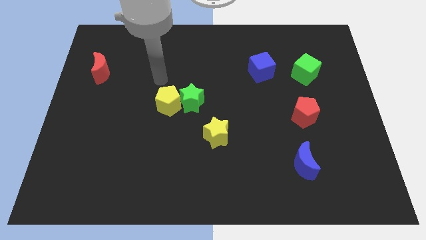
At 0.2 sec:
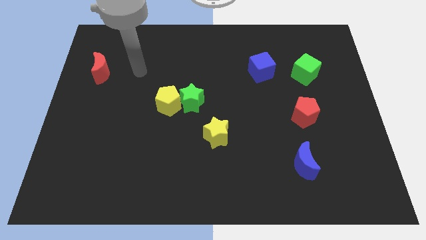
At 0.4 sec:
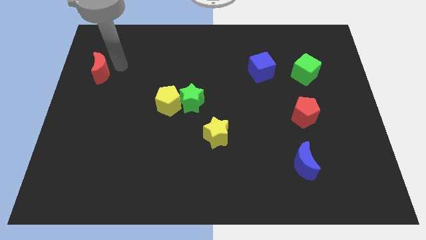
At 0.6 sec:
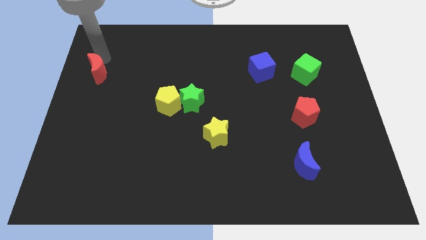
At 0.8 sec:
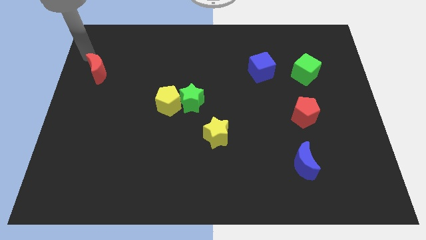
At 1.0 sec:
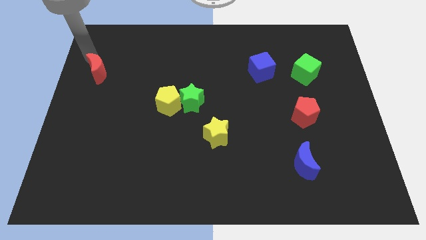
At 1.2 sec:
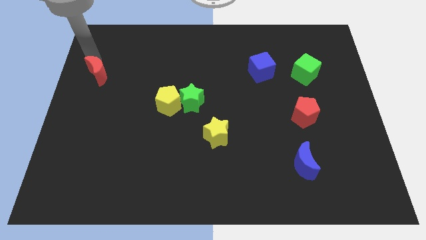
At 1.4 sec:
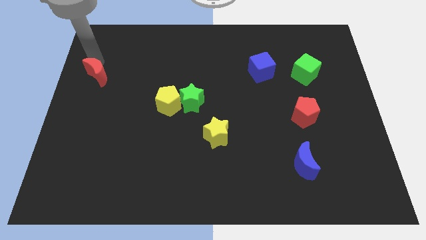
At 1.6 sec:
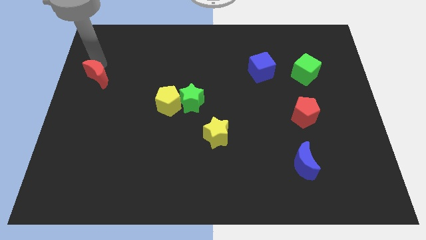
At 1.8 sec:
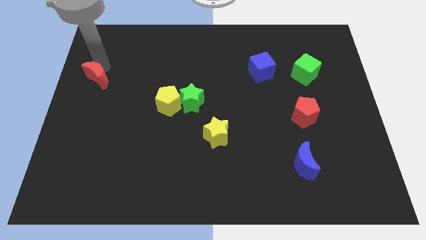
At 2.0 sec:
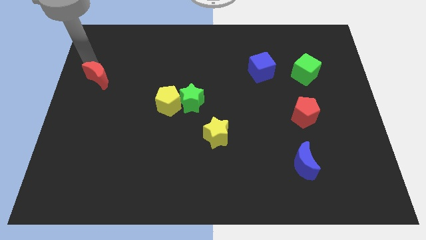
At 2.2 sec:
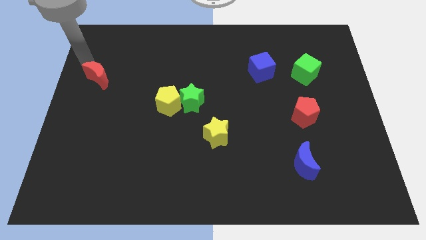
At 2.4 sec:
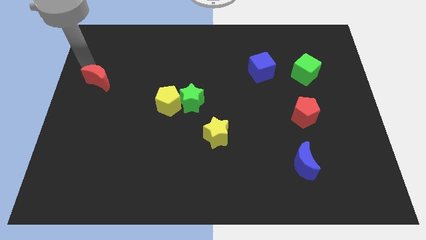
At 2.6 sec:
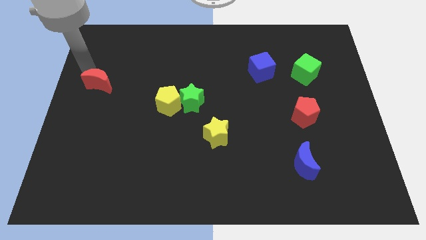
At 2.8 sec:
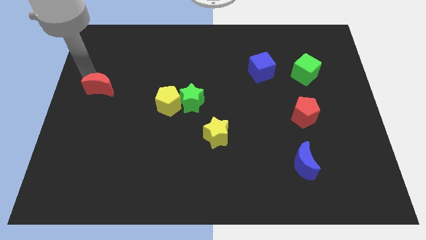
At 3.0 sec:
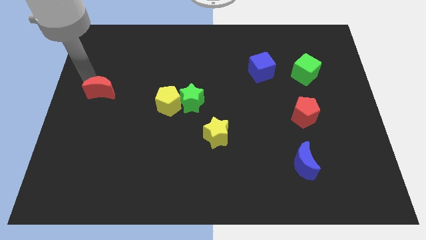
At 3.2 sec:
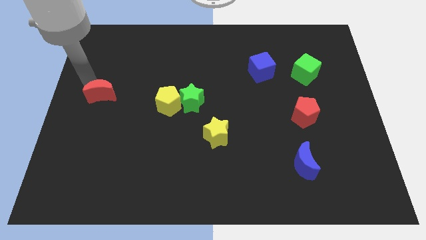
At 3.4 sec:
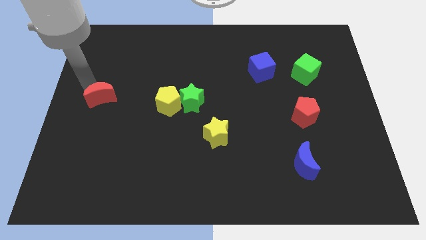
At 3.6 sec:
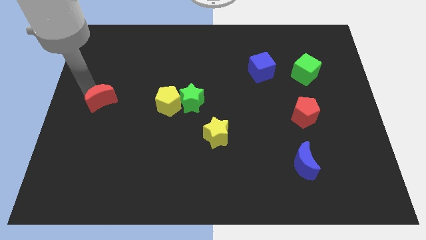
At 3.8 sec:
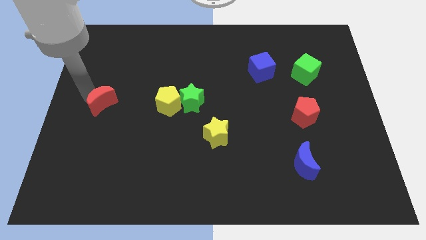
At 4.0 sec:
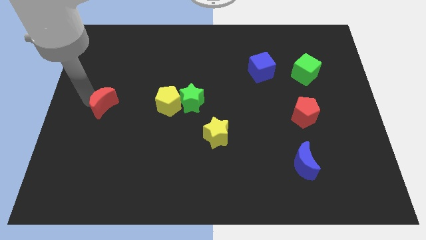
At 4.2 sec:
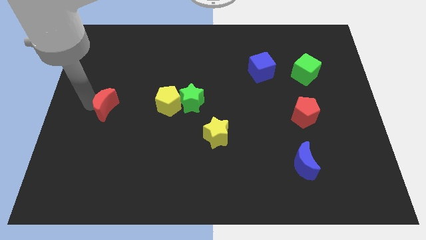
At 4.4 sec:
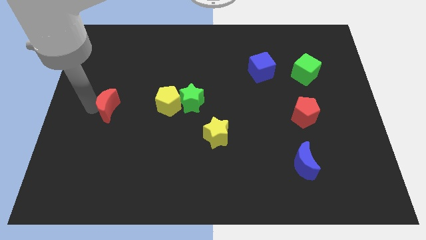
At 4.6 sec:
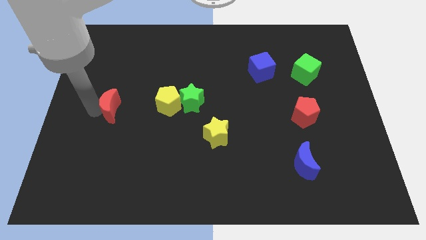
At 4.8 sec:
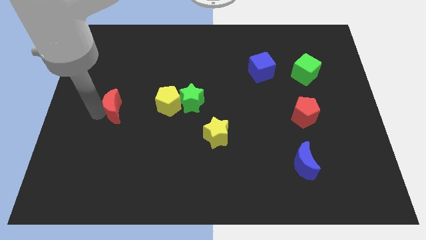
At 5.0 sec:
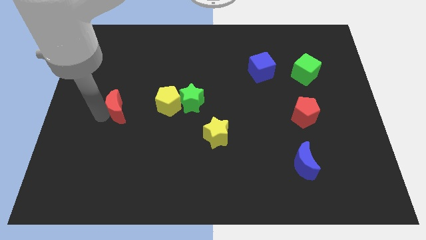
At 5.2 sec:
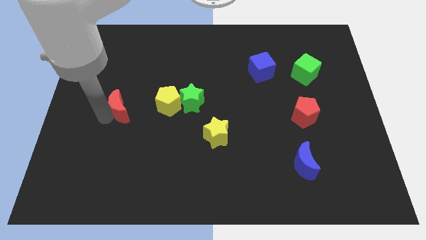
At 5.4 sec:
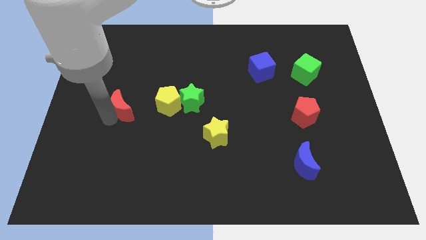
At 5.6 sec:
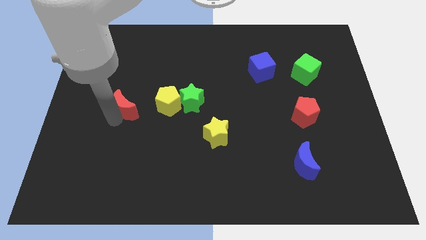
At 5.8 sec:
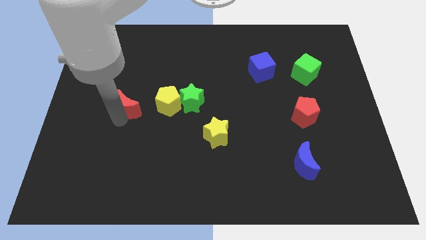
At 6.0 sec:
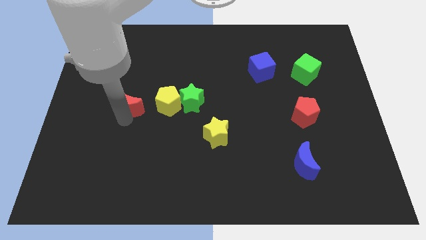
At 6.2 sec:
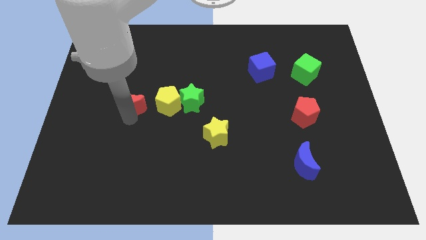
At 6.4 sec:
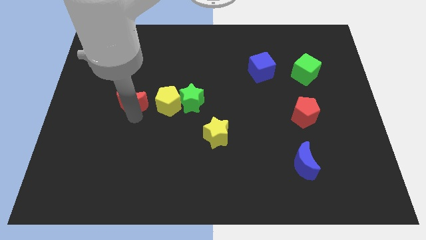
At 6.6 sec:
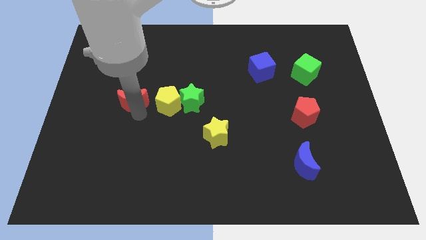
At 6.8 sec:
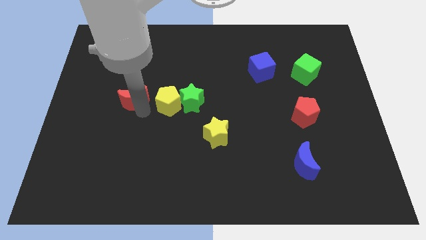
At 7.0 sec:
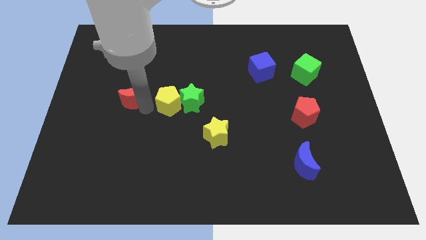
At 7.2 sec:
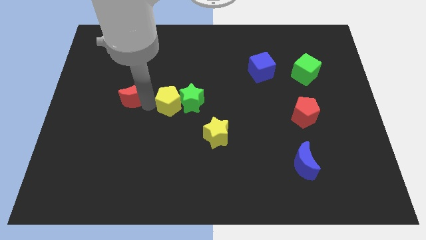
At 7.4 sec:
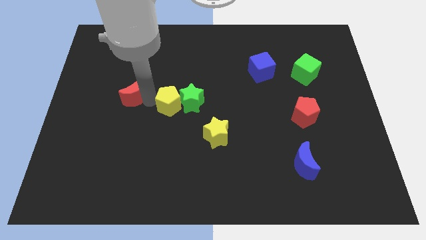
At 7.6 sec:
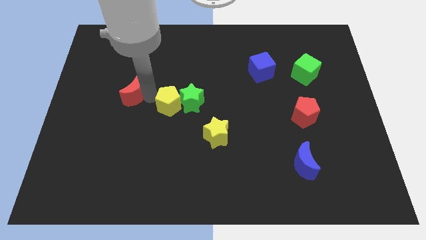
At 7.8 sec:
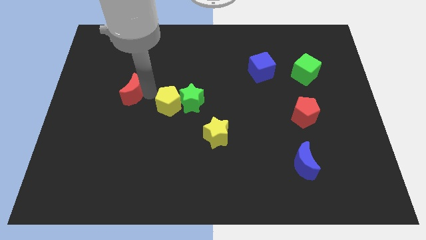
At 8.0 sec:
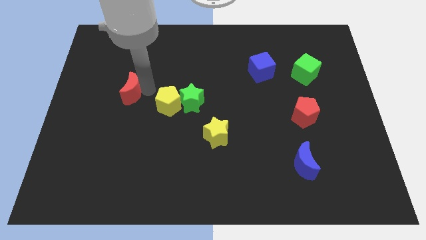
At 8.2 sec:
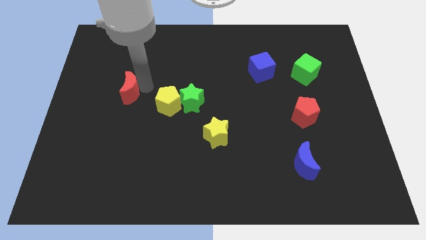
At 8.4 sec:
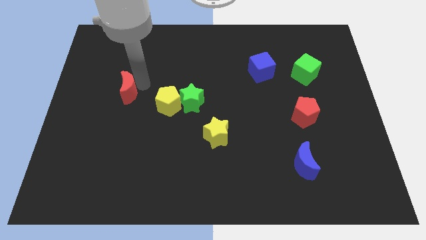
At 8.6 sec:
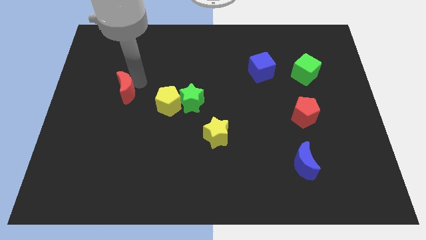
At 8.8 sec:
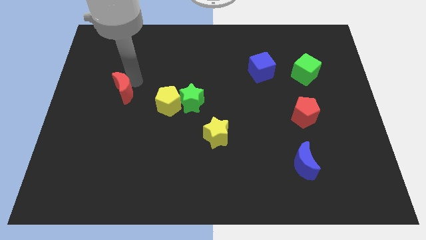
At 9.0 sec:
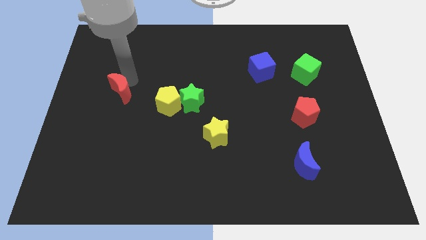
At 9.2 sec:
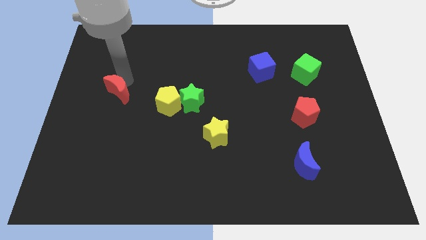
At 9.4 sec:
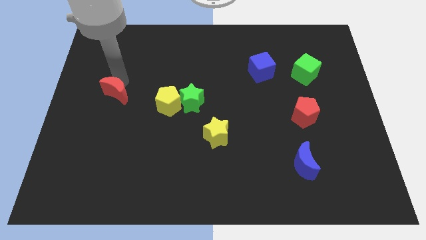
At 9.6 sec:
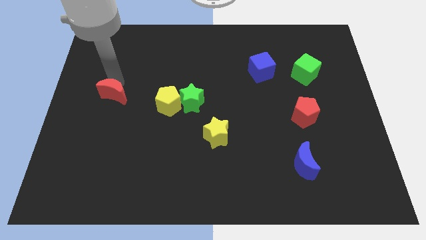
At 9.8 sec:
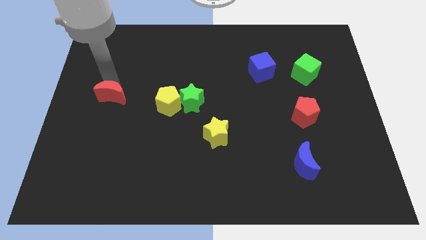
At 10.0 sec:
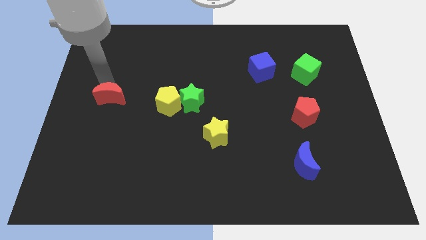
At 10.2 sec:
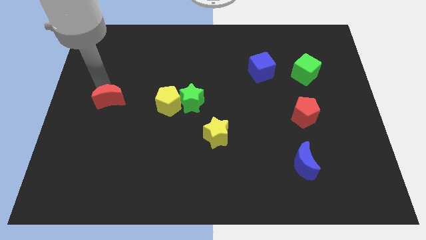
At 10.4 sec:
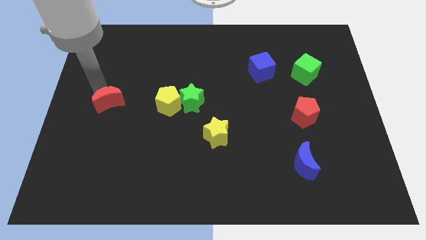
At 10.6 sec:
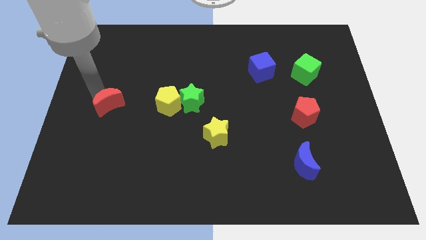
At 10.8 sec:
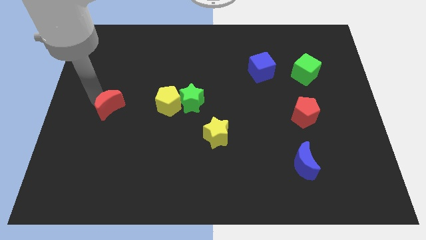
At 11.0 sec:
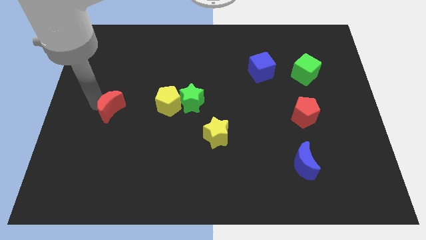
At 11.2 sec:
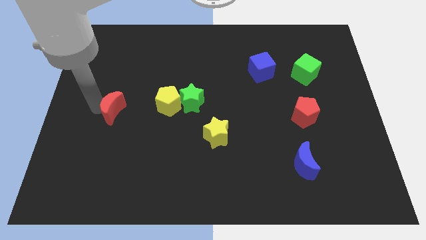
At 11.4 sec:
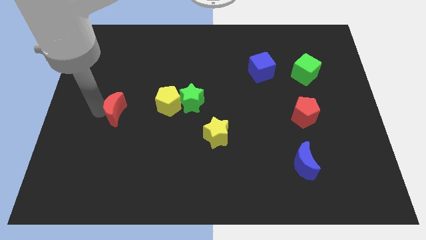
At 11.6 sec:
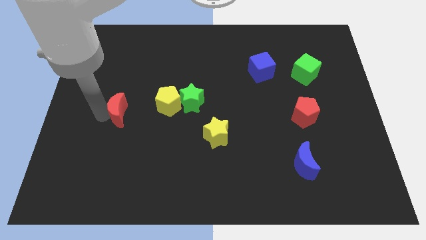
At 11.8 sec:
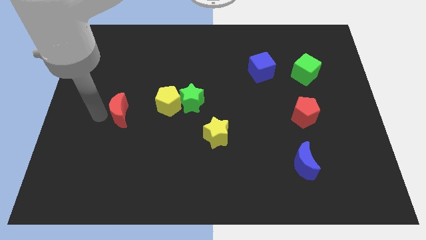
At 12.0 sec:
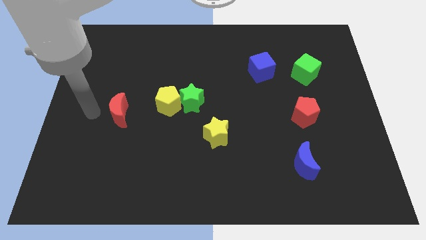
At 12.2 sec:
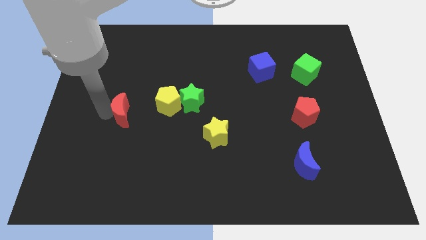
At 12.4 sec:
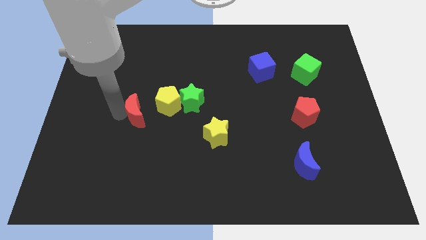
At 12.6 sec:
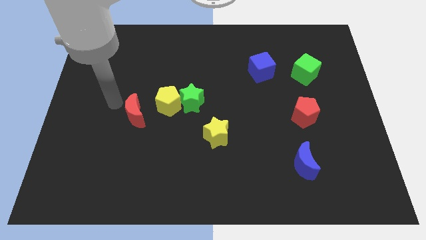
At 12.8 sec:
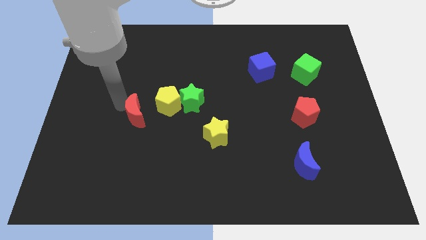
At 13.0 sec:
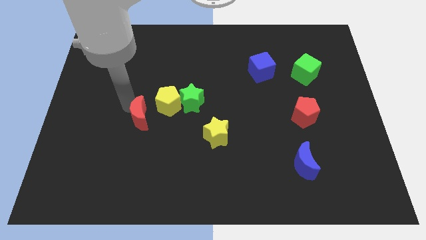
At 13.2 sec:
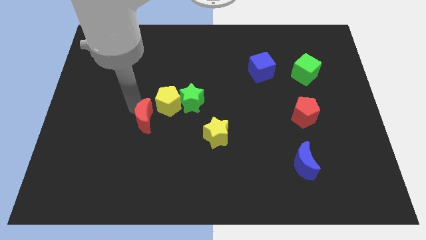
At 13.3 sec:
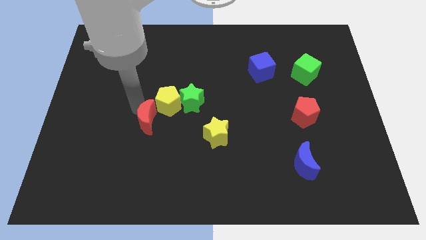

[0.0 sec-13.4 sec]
move the red moon downwards and to the right

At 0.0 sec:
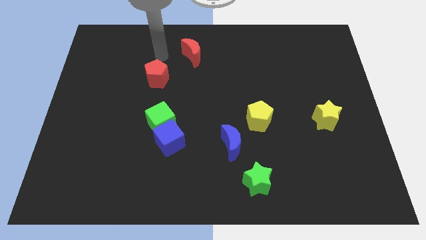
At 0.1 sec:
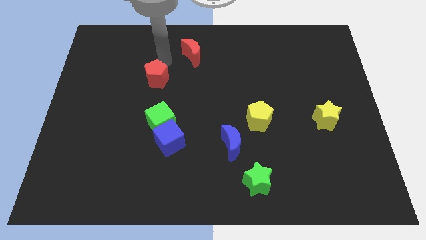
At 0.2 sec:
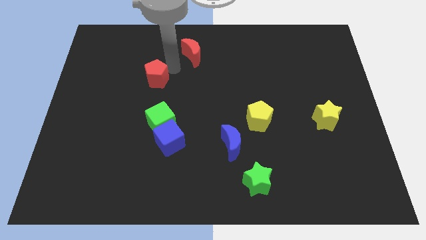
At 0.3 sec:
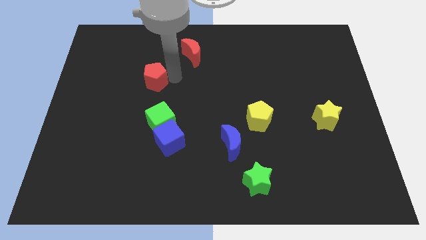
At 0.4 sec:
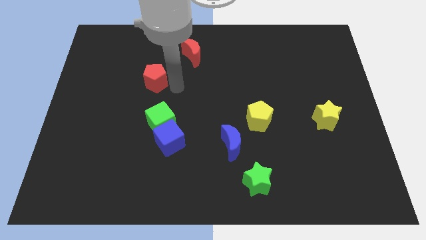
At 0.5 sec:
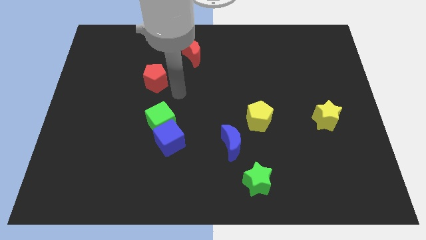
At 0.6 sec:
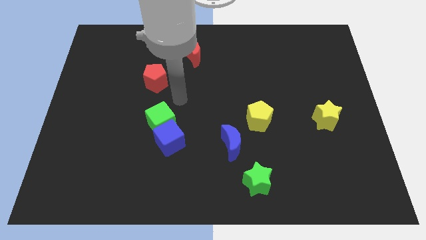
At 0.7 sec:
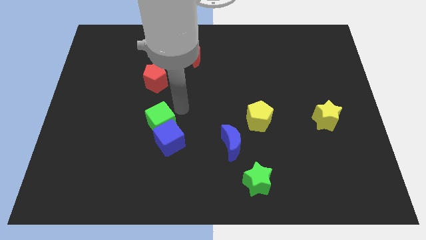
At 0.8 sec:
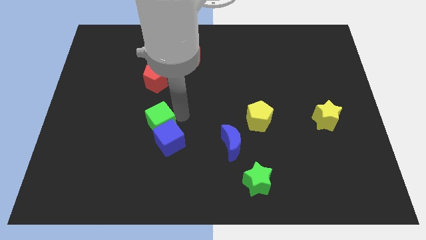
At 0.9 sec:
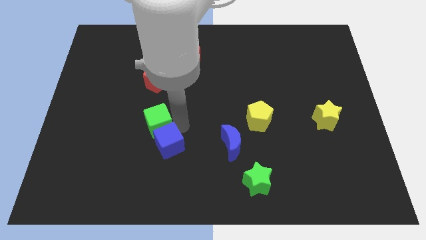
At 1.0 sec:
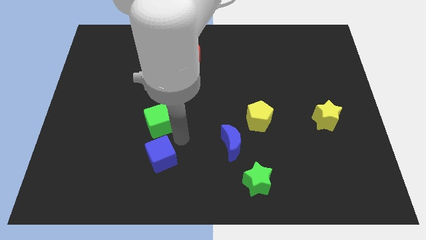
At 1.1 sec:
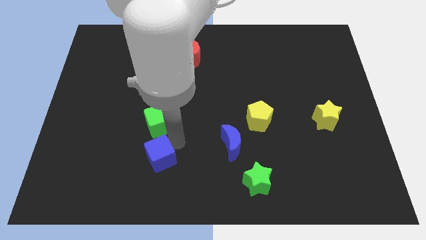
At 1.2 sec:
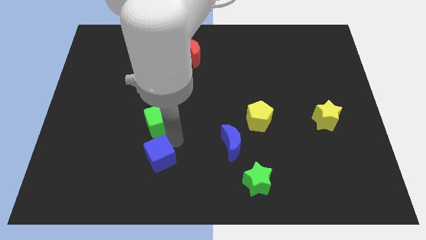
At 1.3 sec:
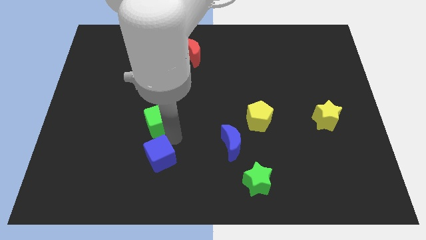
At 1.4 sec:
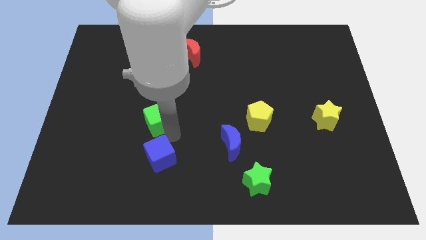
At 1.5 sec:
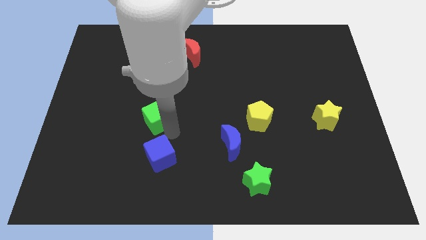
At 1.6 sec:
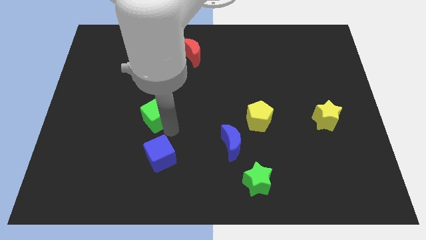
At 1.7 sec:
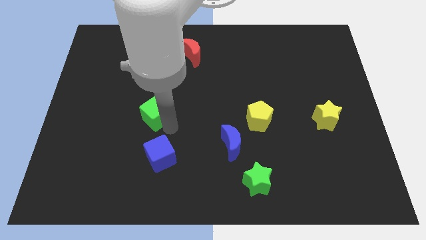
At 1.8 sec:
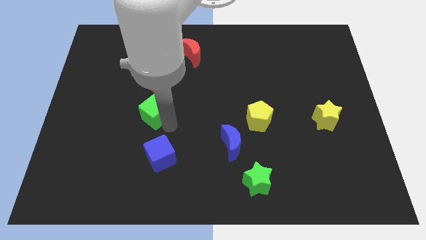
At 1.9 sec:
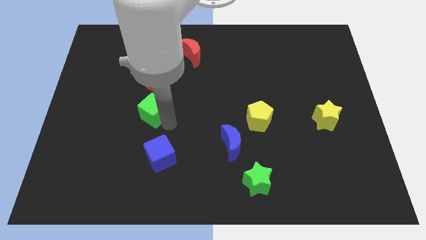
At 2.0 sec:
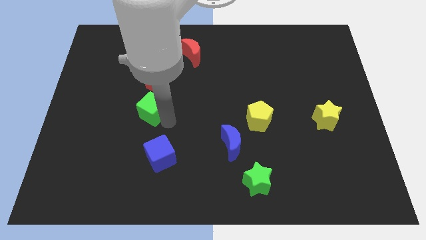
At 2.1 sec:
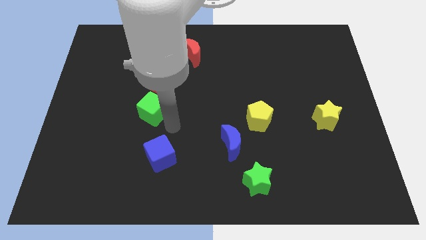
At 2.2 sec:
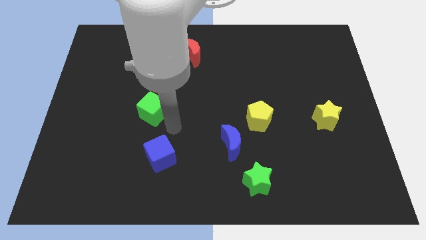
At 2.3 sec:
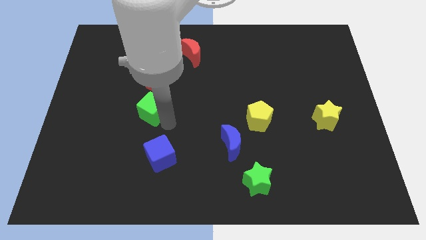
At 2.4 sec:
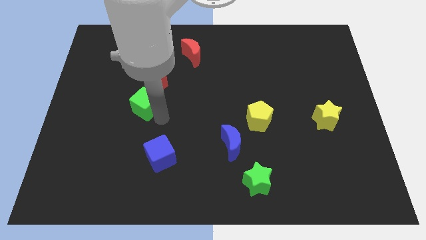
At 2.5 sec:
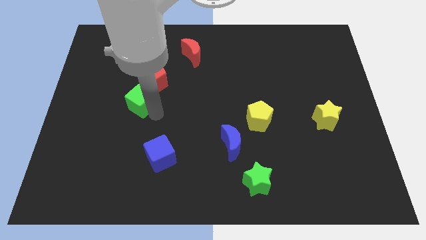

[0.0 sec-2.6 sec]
move the green cube somewhat diagonally upwards and to the left
